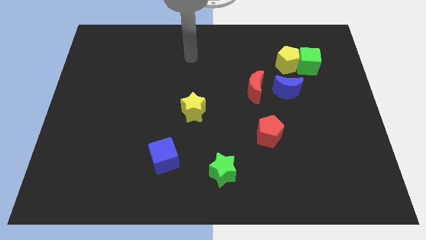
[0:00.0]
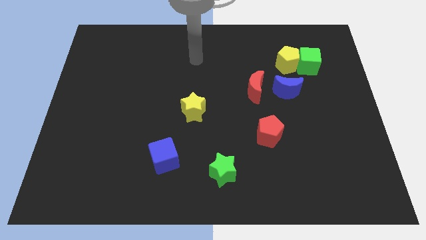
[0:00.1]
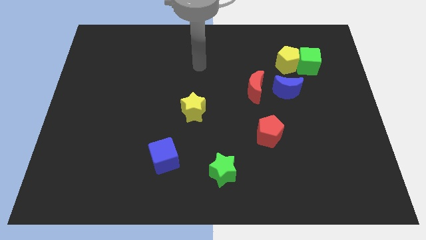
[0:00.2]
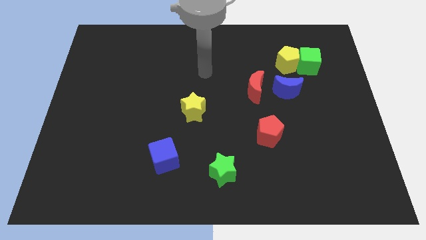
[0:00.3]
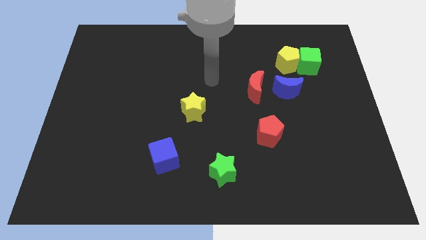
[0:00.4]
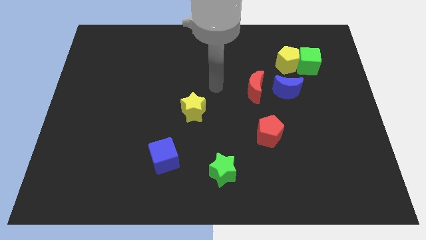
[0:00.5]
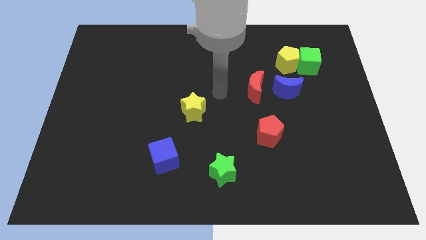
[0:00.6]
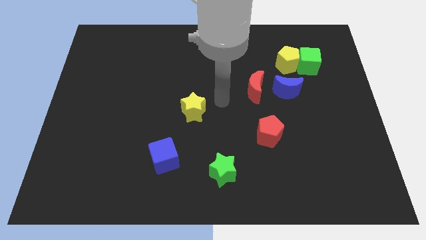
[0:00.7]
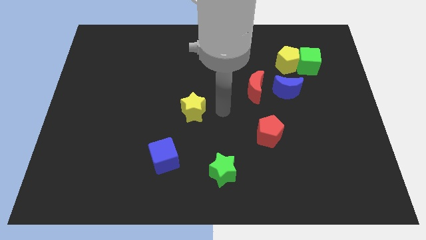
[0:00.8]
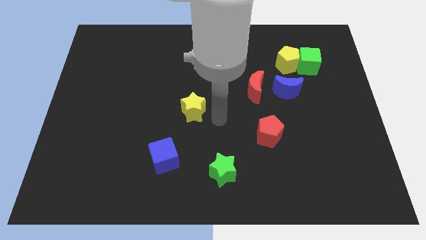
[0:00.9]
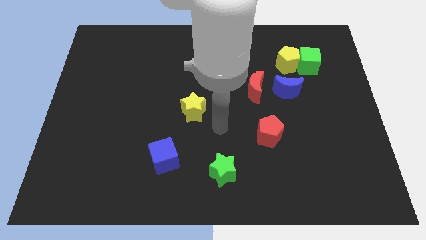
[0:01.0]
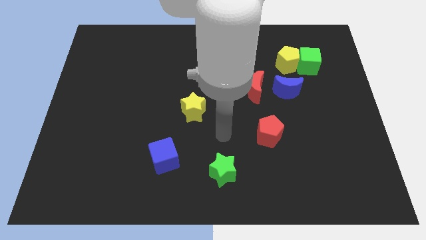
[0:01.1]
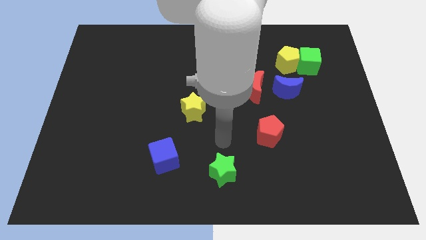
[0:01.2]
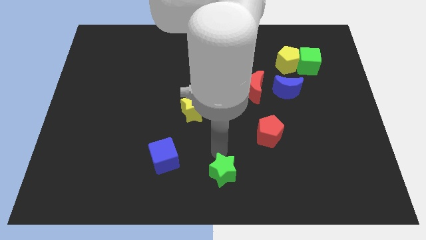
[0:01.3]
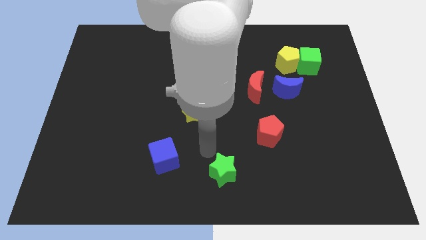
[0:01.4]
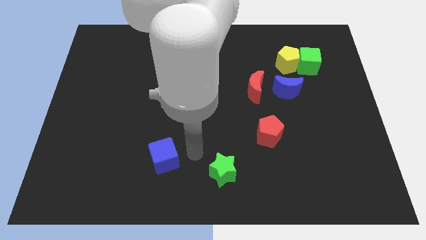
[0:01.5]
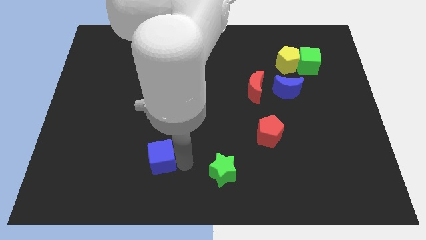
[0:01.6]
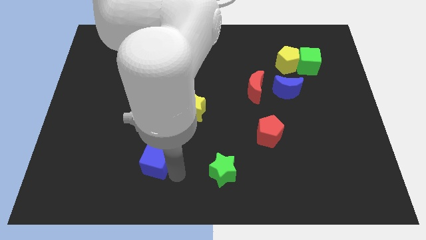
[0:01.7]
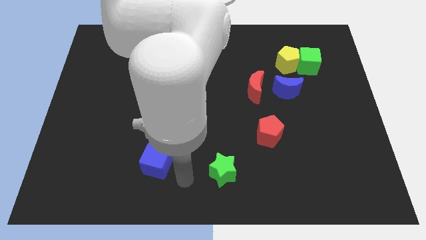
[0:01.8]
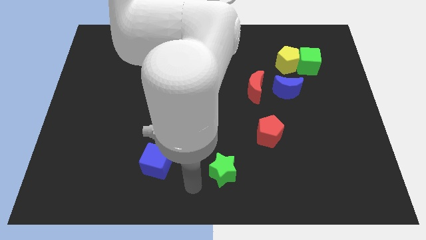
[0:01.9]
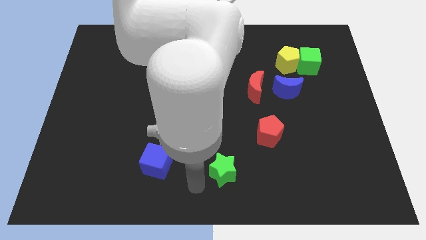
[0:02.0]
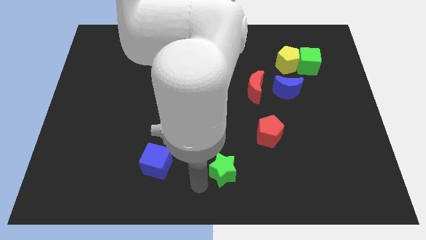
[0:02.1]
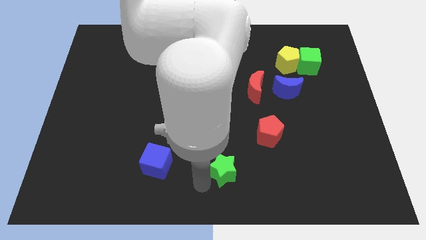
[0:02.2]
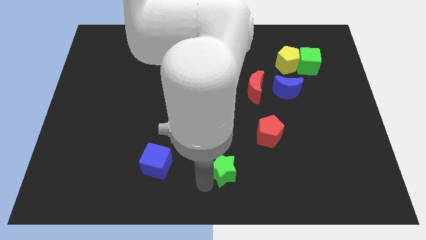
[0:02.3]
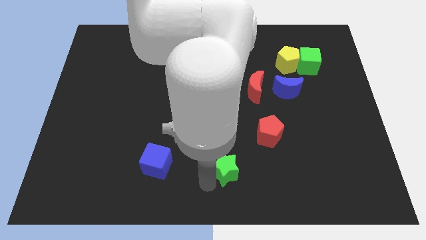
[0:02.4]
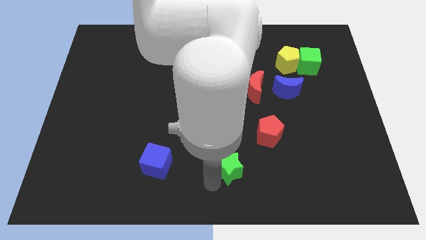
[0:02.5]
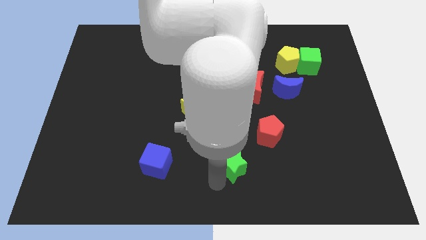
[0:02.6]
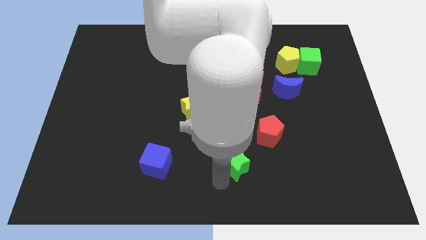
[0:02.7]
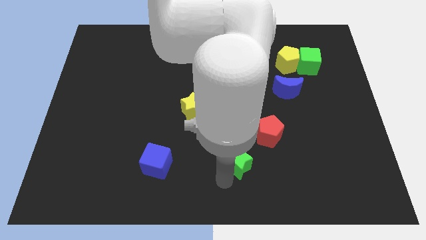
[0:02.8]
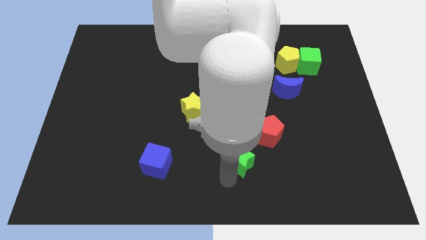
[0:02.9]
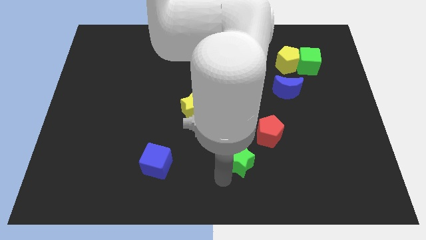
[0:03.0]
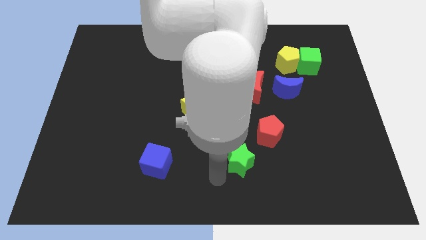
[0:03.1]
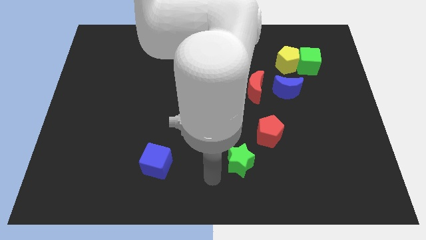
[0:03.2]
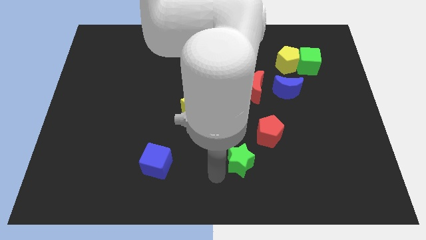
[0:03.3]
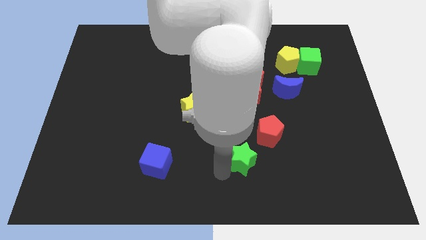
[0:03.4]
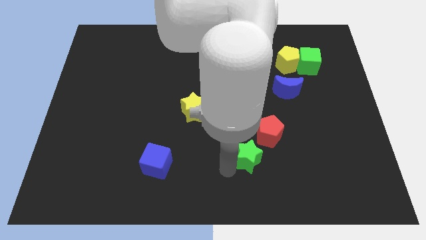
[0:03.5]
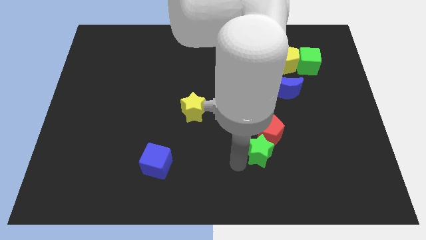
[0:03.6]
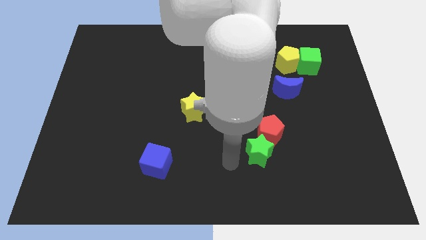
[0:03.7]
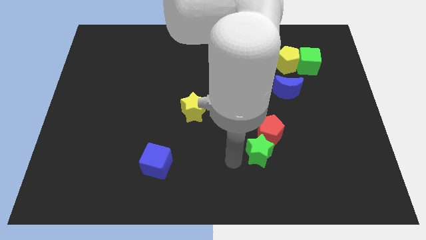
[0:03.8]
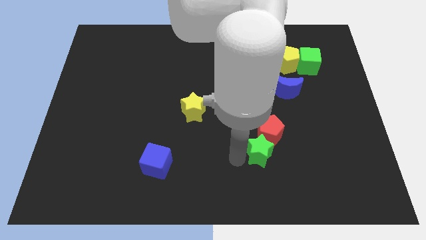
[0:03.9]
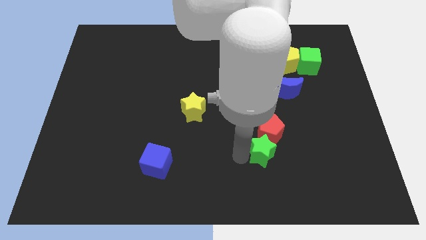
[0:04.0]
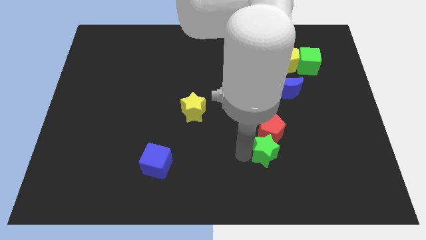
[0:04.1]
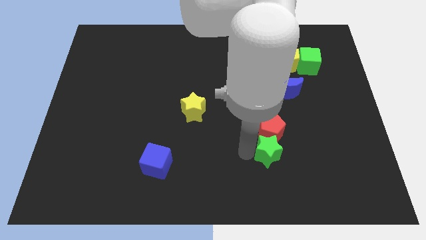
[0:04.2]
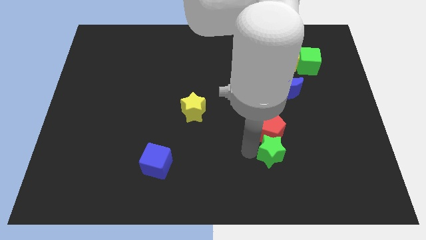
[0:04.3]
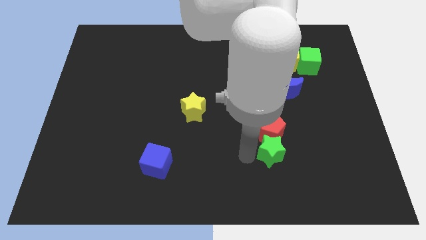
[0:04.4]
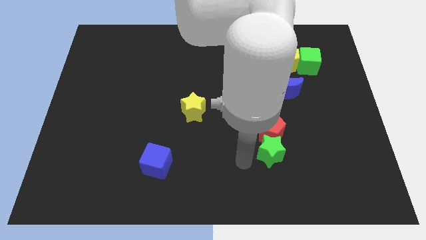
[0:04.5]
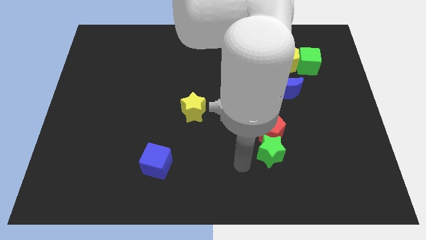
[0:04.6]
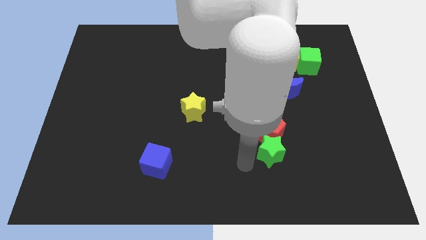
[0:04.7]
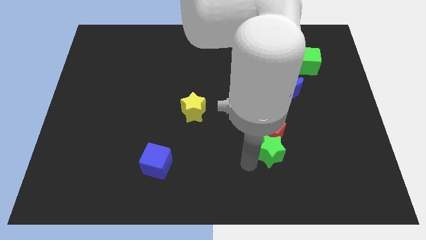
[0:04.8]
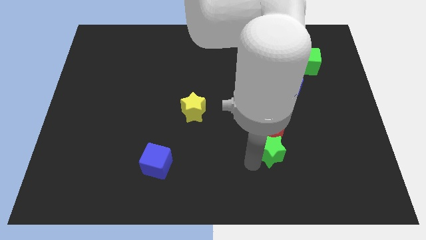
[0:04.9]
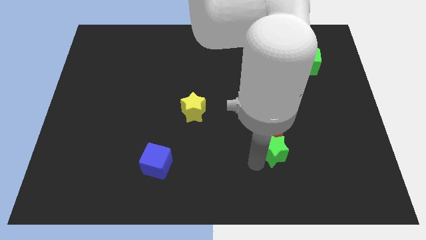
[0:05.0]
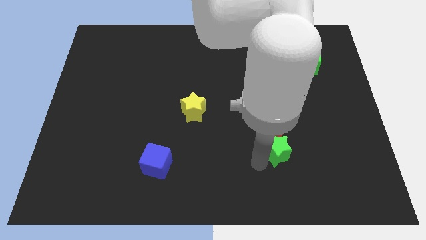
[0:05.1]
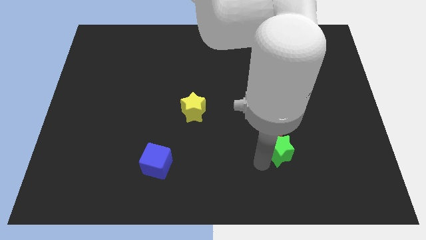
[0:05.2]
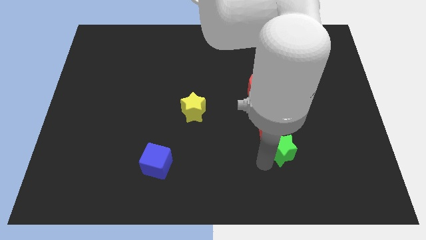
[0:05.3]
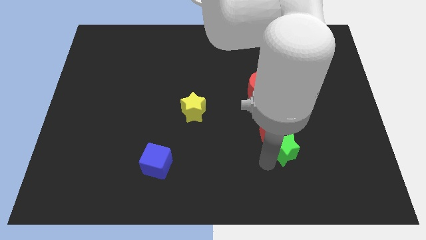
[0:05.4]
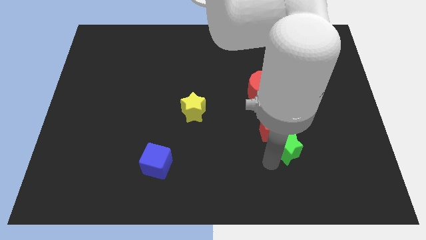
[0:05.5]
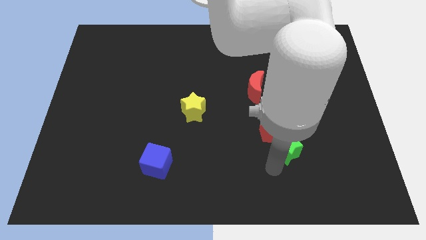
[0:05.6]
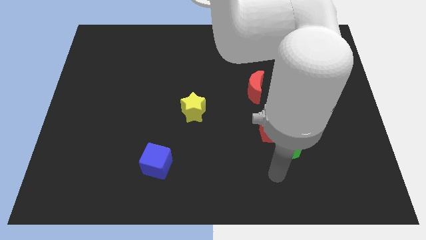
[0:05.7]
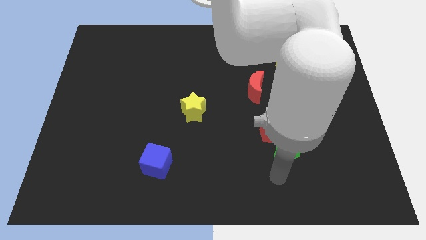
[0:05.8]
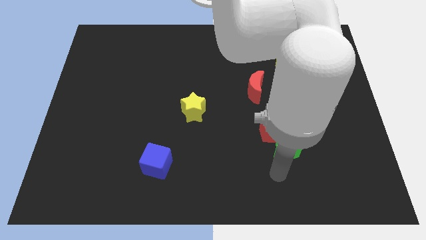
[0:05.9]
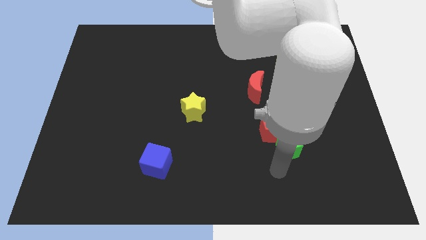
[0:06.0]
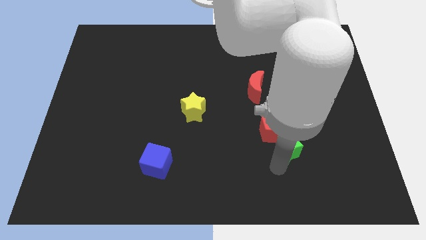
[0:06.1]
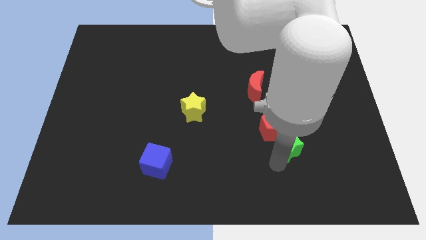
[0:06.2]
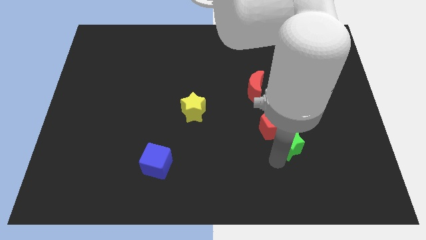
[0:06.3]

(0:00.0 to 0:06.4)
put the green star to the bottom side of the blue moon
